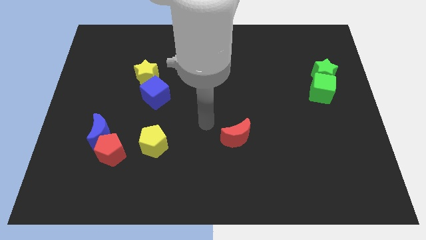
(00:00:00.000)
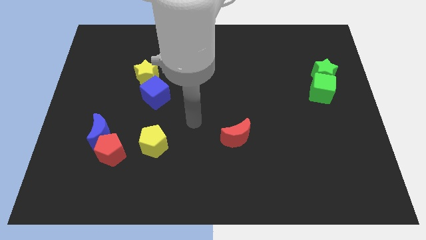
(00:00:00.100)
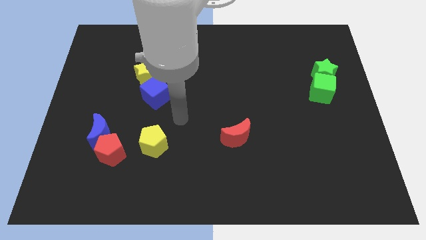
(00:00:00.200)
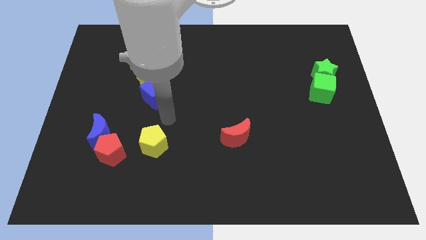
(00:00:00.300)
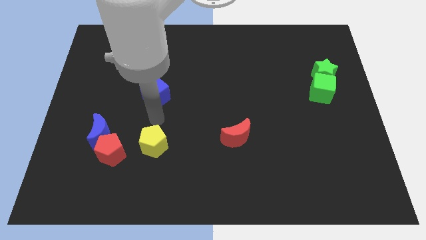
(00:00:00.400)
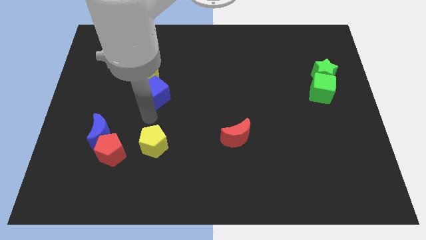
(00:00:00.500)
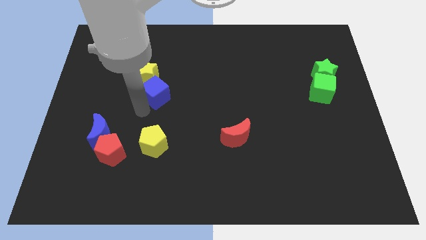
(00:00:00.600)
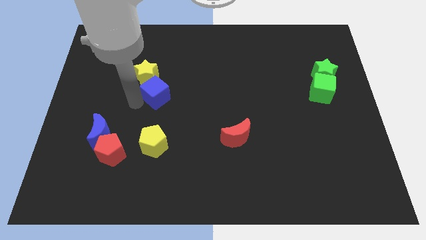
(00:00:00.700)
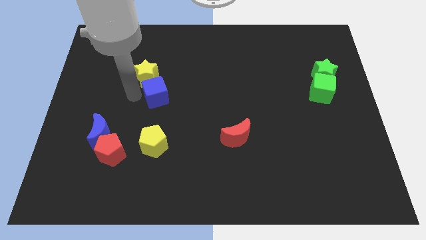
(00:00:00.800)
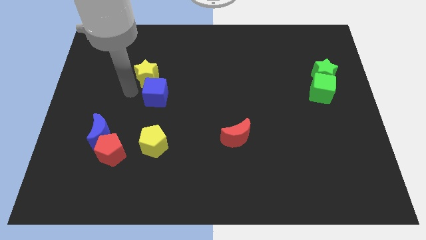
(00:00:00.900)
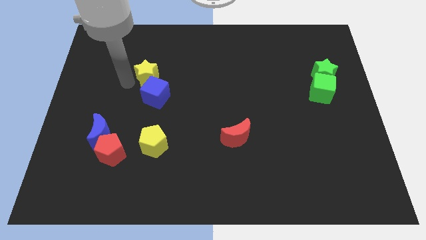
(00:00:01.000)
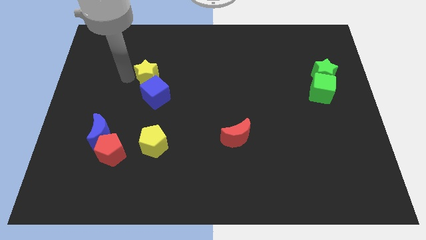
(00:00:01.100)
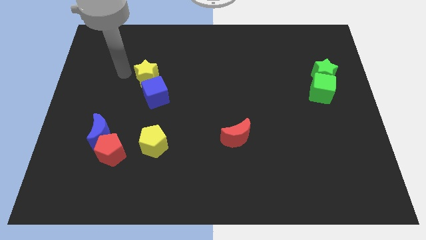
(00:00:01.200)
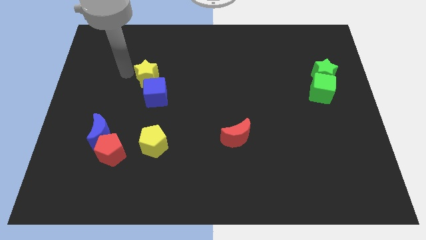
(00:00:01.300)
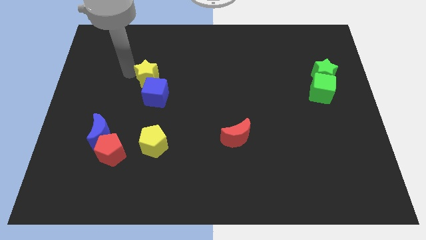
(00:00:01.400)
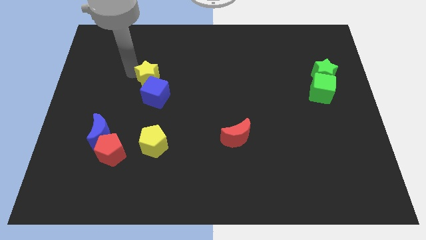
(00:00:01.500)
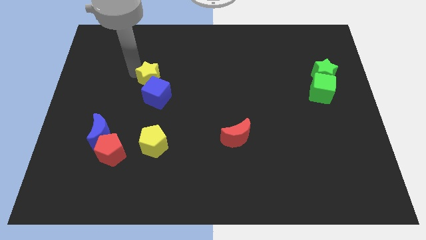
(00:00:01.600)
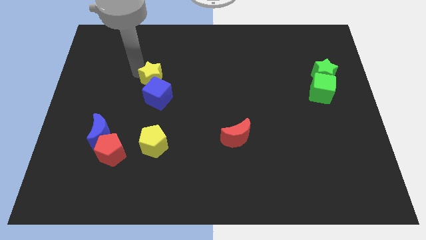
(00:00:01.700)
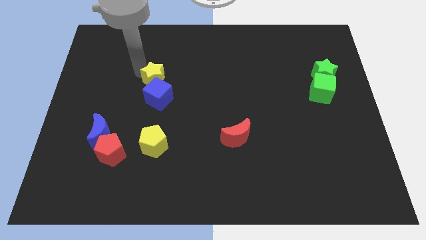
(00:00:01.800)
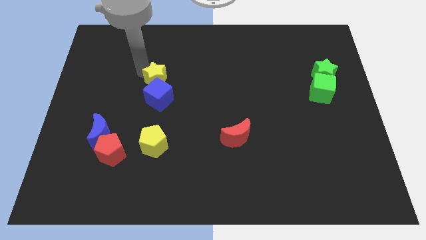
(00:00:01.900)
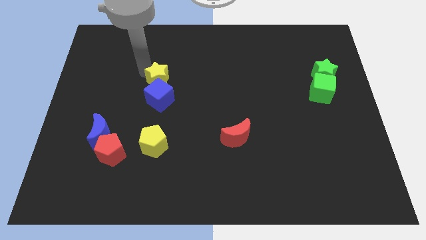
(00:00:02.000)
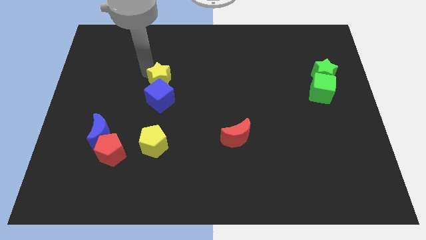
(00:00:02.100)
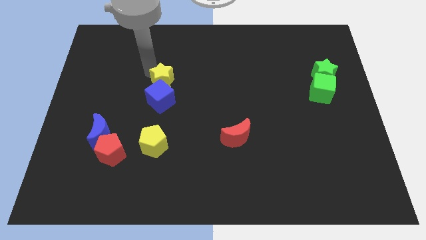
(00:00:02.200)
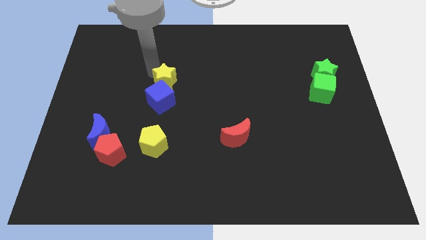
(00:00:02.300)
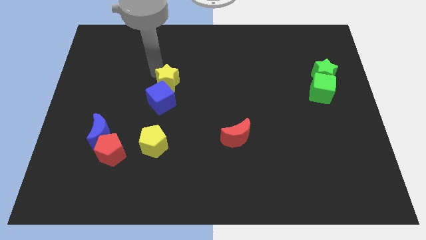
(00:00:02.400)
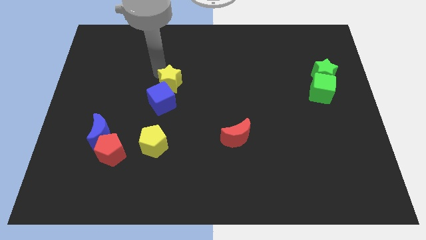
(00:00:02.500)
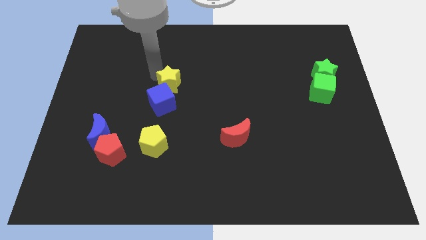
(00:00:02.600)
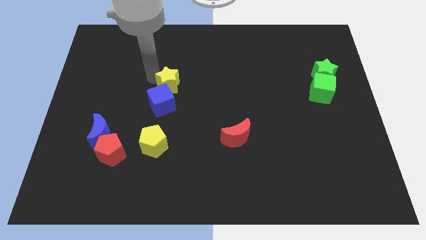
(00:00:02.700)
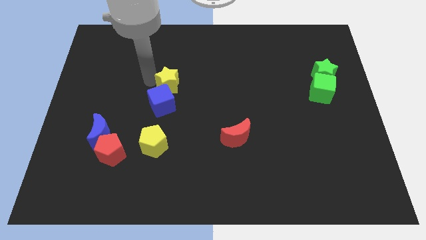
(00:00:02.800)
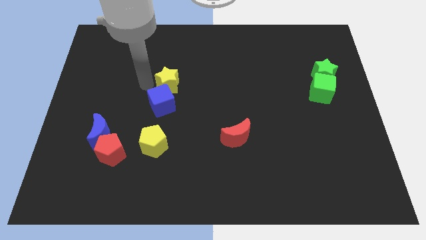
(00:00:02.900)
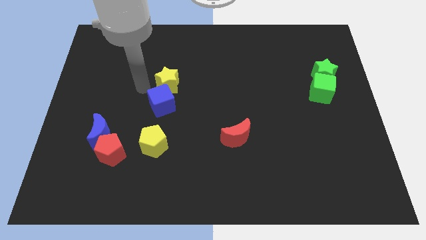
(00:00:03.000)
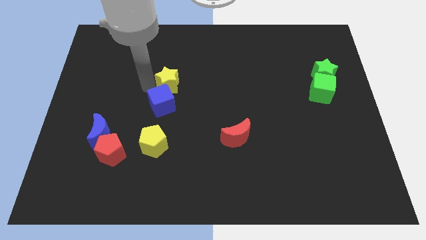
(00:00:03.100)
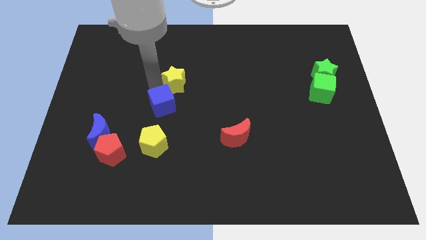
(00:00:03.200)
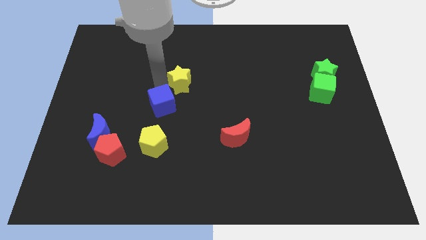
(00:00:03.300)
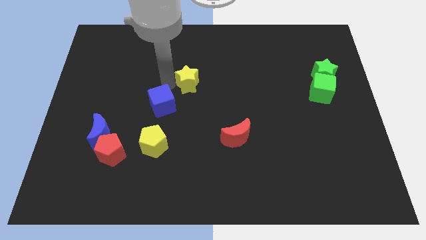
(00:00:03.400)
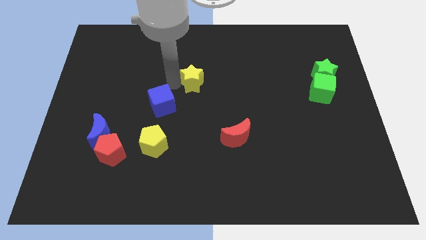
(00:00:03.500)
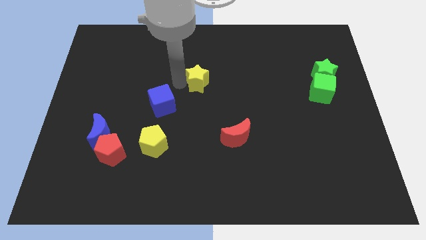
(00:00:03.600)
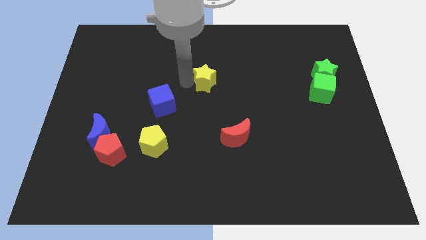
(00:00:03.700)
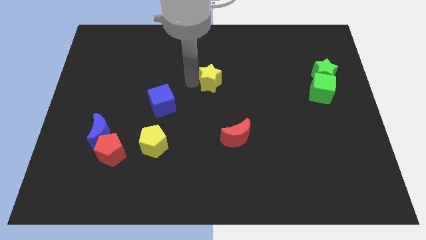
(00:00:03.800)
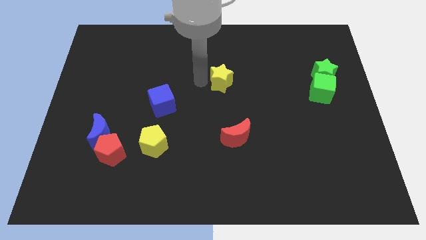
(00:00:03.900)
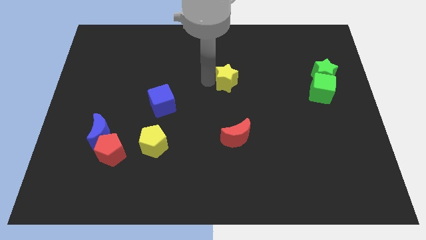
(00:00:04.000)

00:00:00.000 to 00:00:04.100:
push the yellow star to the right

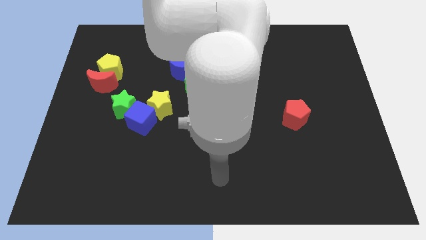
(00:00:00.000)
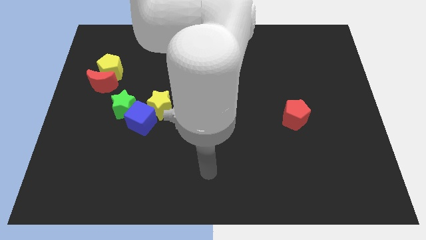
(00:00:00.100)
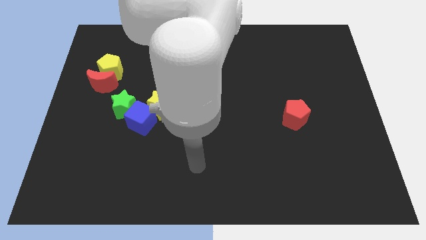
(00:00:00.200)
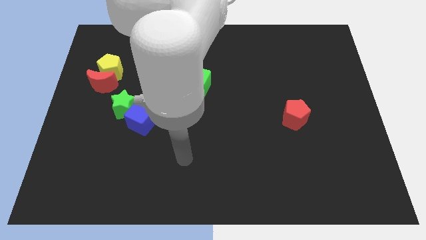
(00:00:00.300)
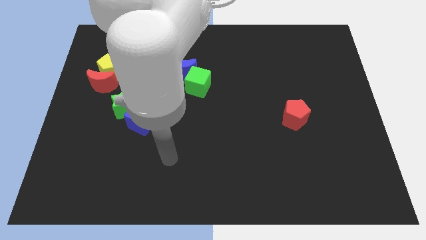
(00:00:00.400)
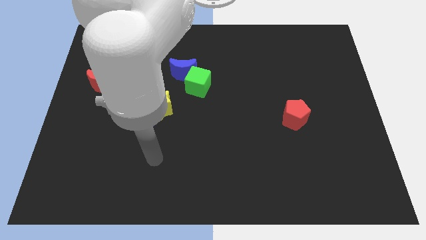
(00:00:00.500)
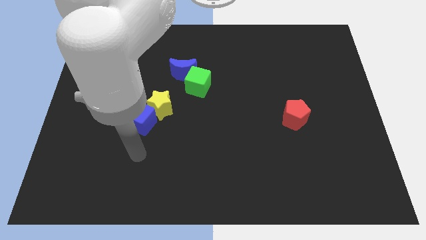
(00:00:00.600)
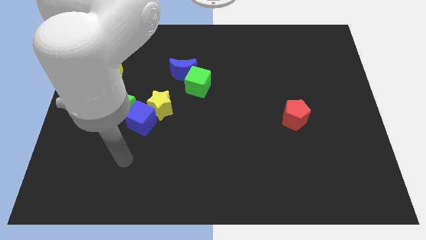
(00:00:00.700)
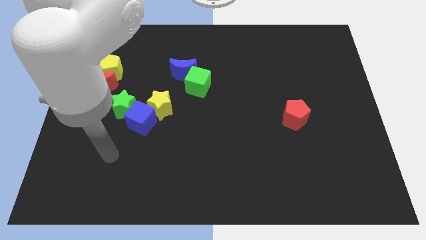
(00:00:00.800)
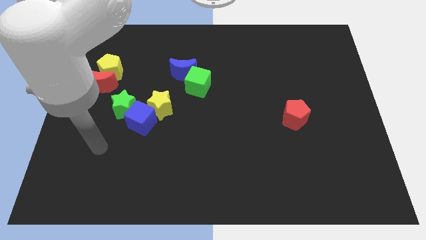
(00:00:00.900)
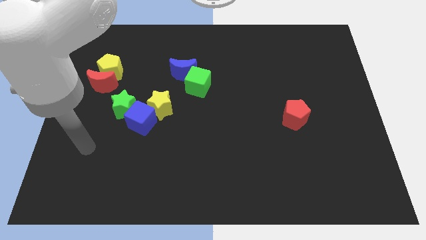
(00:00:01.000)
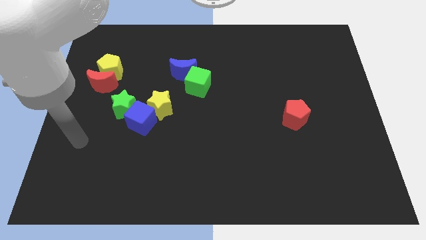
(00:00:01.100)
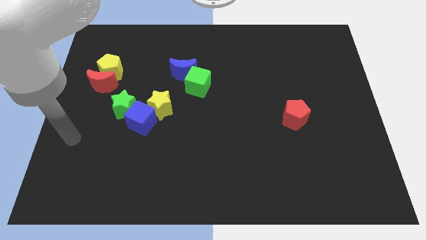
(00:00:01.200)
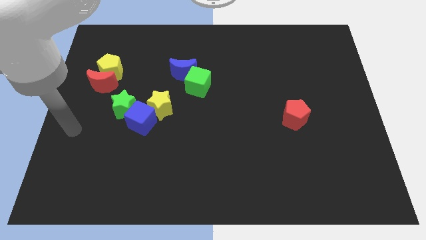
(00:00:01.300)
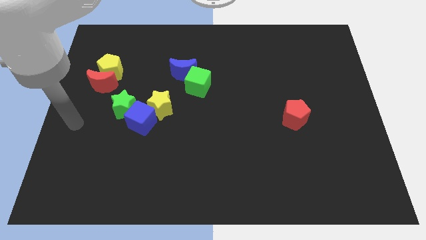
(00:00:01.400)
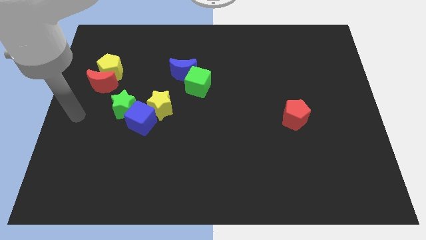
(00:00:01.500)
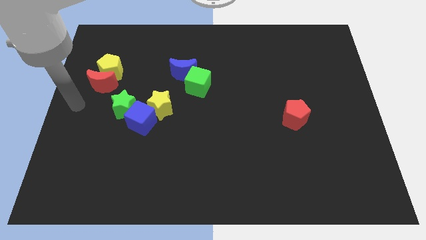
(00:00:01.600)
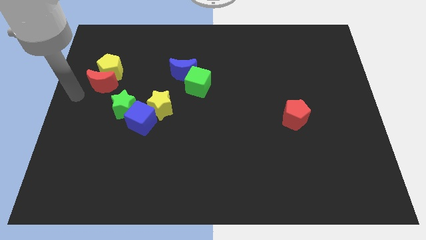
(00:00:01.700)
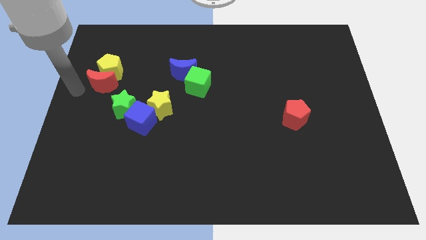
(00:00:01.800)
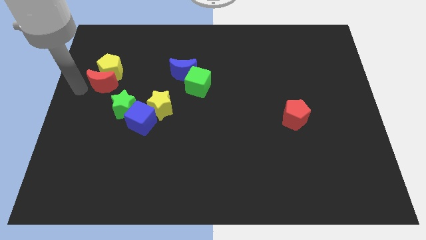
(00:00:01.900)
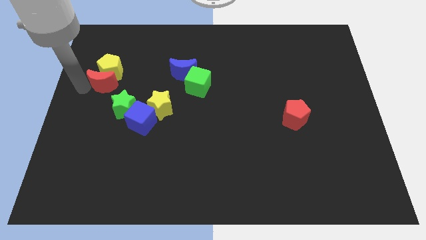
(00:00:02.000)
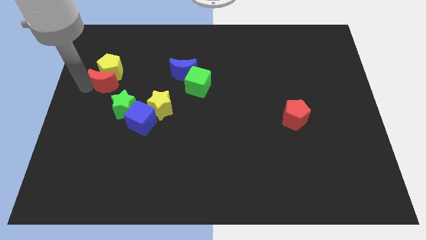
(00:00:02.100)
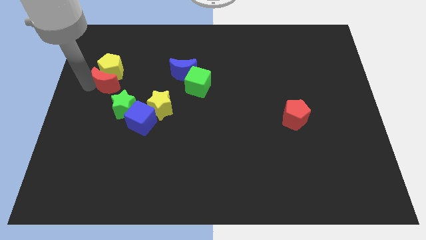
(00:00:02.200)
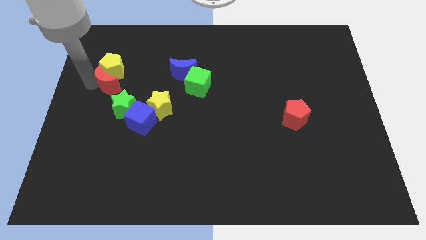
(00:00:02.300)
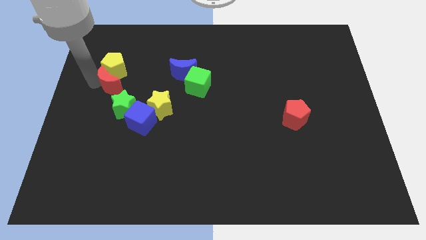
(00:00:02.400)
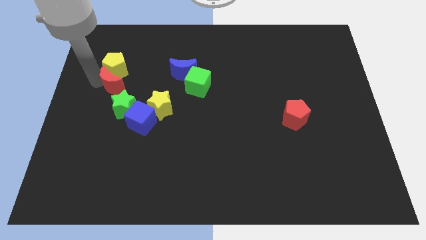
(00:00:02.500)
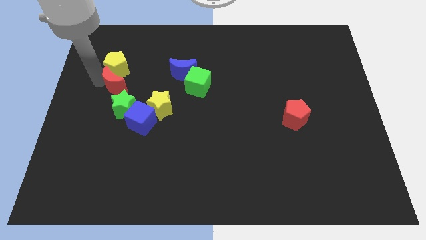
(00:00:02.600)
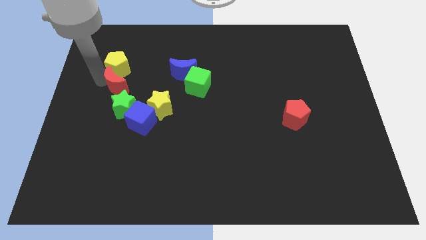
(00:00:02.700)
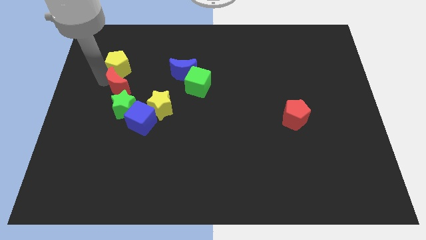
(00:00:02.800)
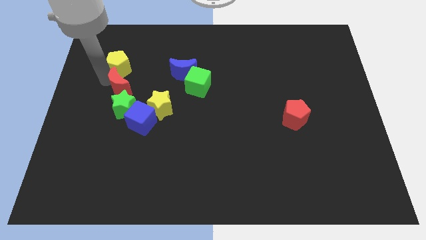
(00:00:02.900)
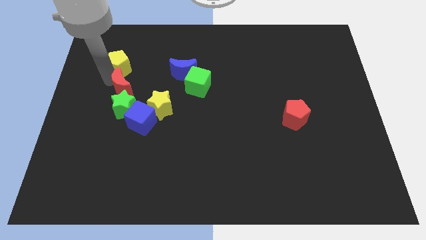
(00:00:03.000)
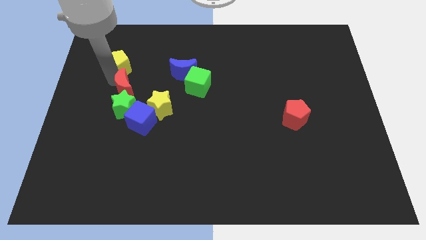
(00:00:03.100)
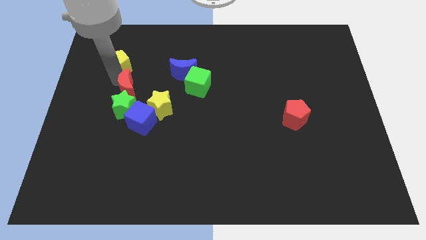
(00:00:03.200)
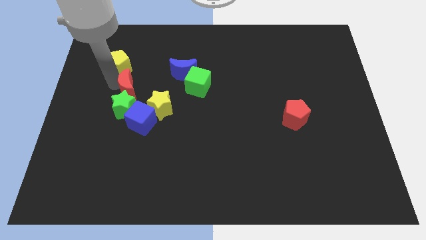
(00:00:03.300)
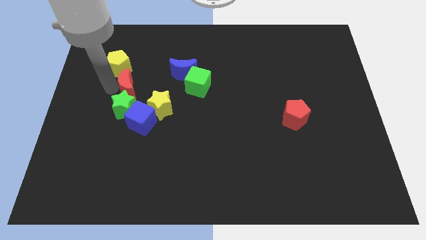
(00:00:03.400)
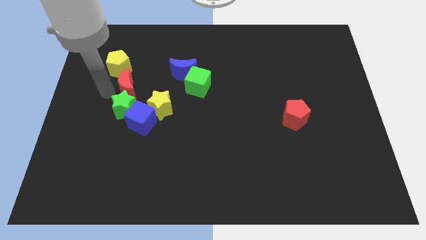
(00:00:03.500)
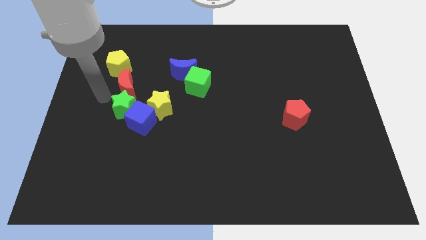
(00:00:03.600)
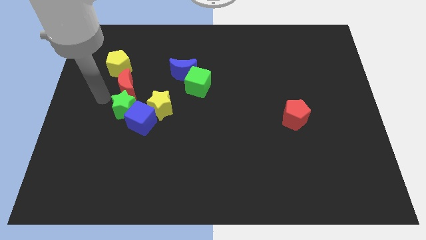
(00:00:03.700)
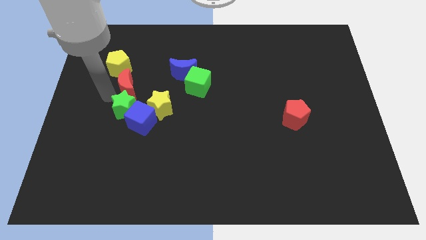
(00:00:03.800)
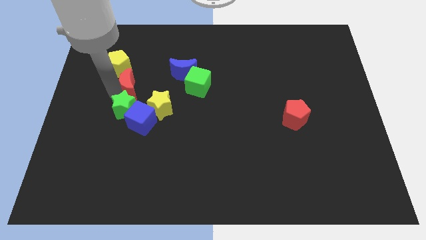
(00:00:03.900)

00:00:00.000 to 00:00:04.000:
move the red moon to the right somewhat
